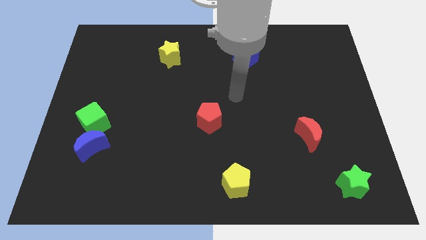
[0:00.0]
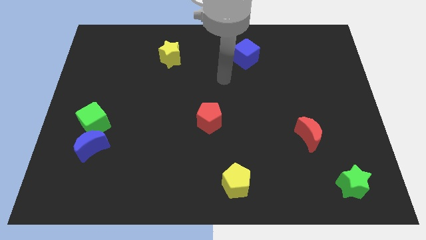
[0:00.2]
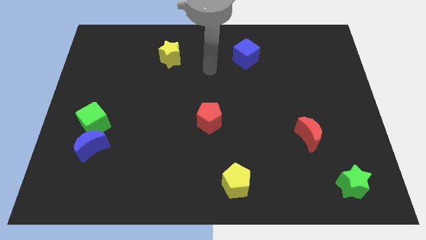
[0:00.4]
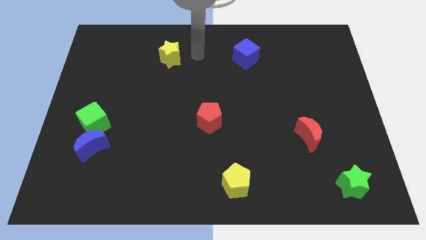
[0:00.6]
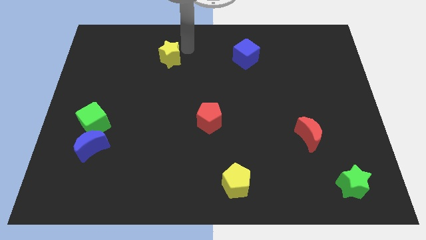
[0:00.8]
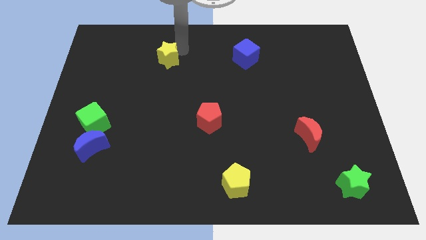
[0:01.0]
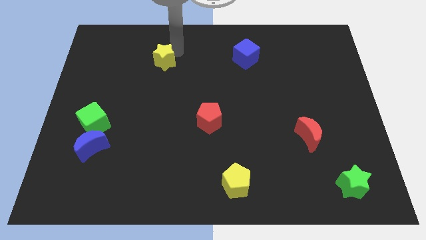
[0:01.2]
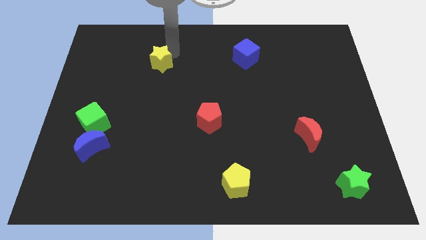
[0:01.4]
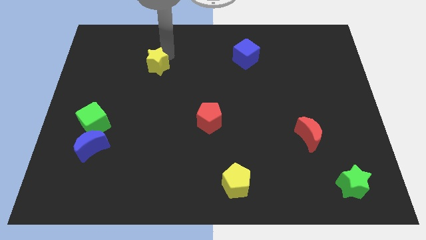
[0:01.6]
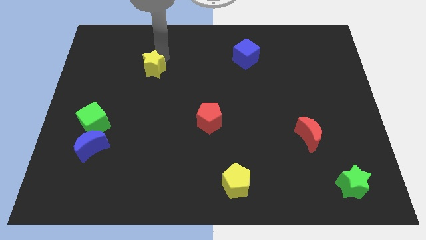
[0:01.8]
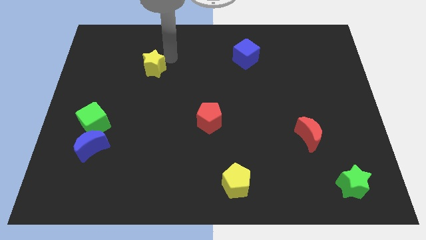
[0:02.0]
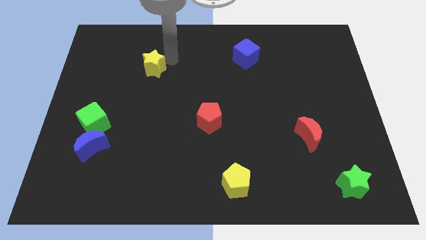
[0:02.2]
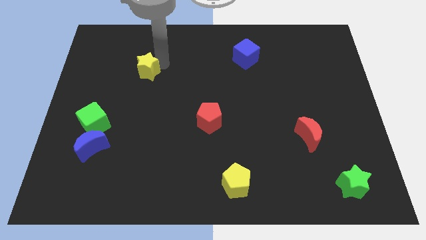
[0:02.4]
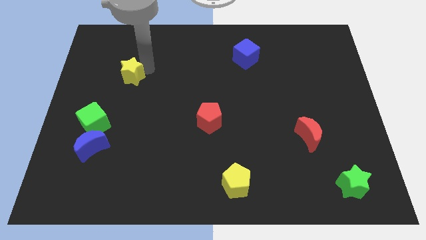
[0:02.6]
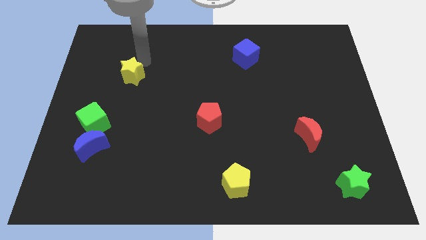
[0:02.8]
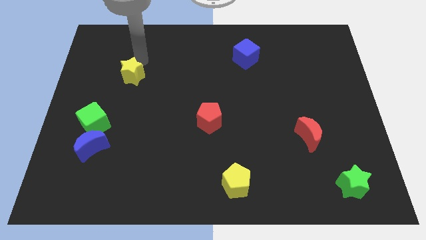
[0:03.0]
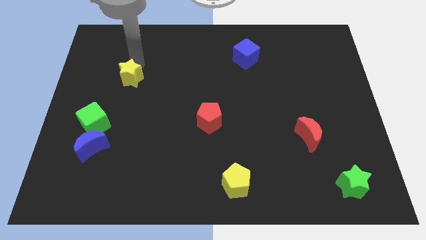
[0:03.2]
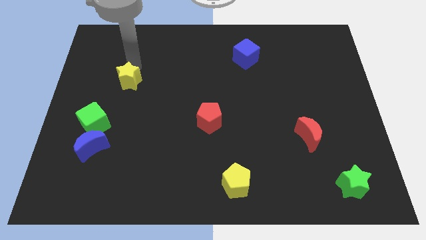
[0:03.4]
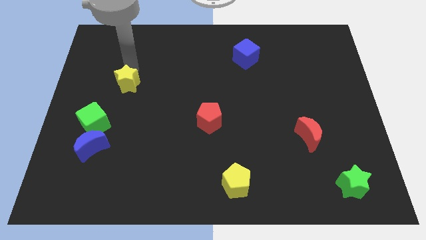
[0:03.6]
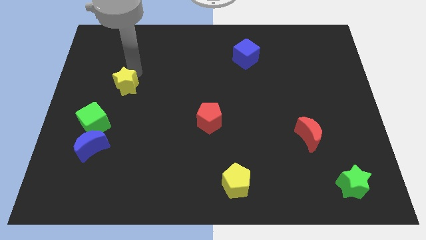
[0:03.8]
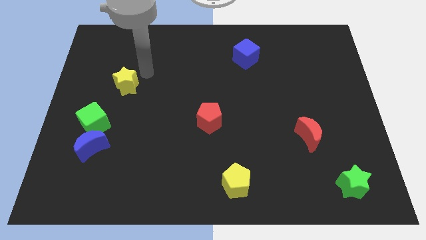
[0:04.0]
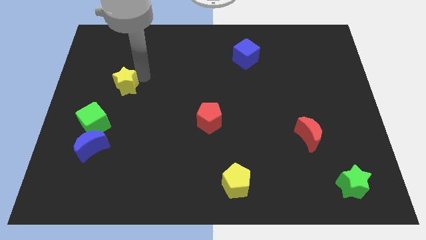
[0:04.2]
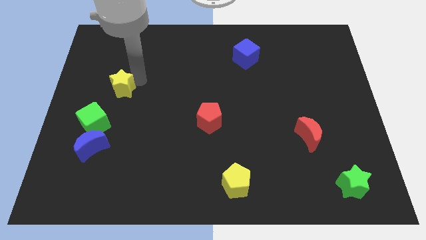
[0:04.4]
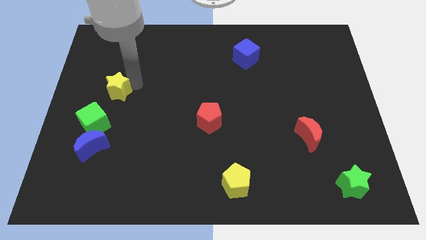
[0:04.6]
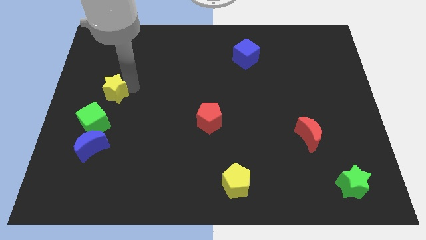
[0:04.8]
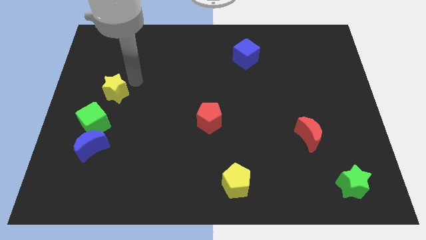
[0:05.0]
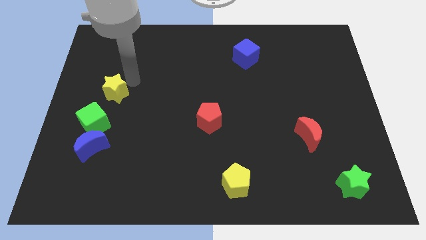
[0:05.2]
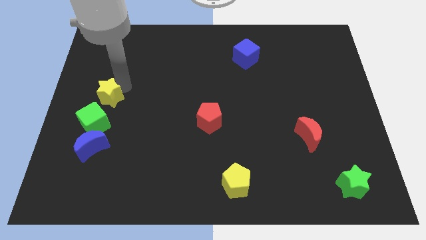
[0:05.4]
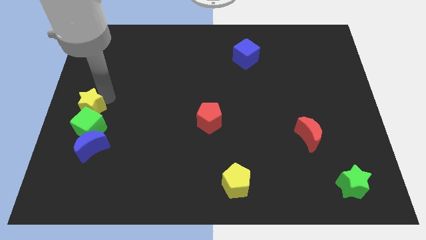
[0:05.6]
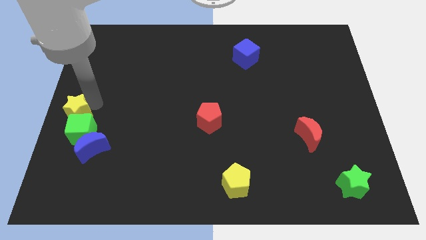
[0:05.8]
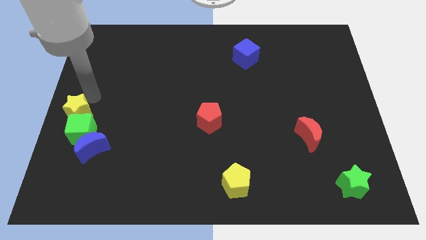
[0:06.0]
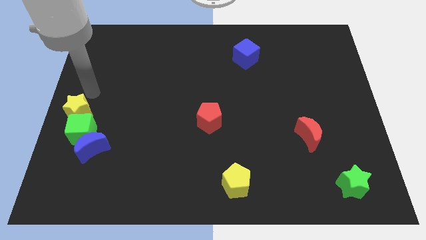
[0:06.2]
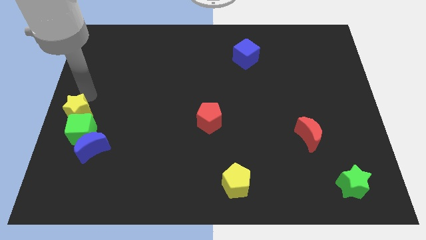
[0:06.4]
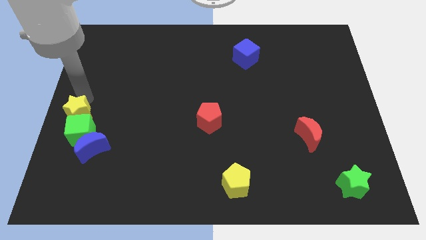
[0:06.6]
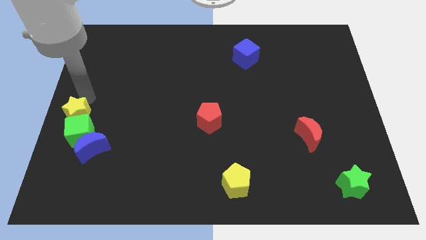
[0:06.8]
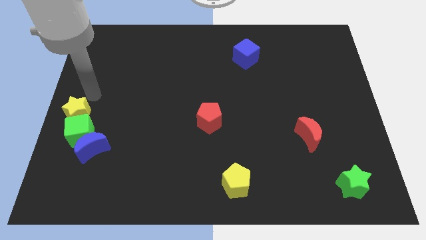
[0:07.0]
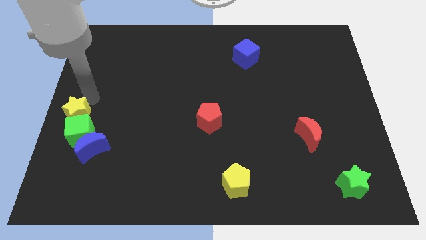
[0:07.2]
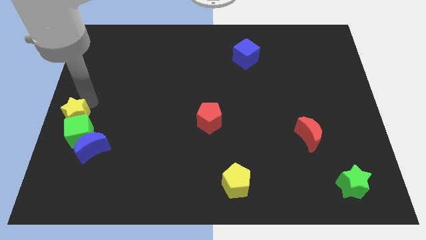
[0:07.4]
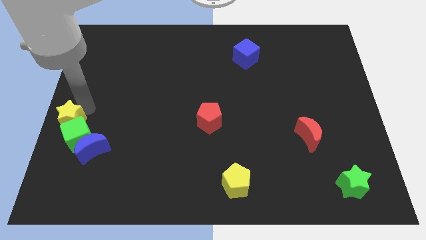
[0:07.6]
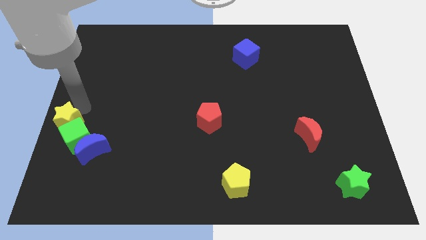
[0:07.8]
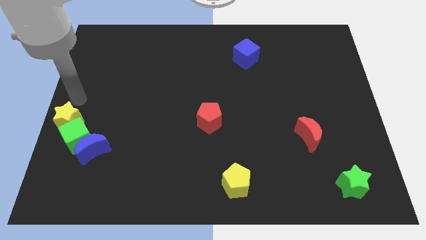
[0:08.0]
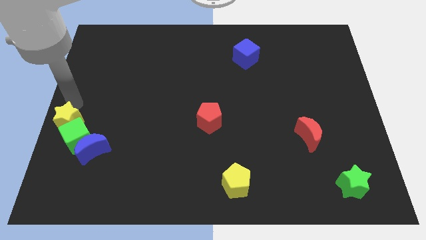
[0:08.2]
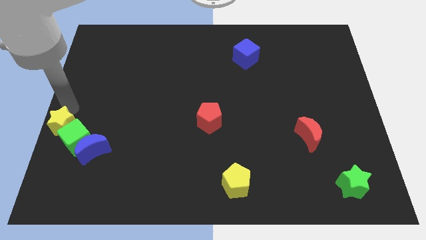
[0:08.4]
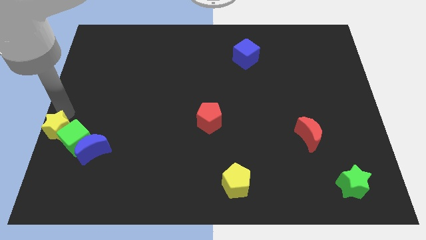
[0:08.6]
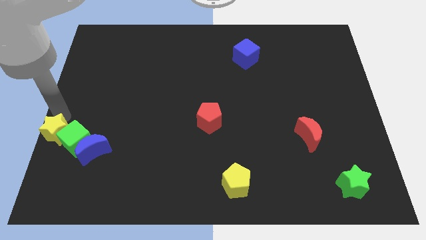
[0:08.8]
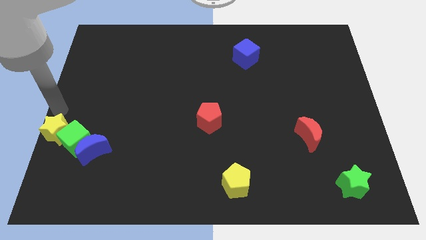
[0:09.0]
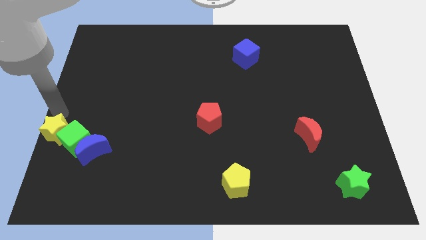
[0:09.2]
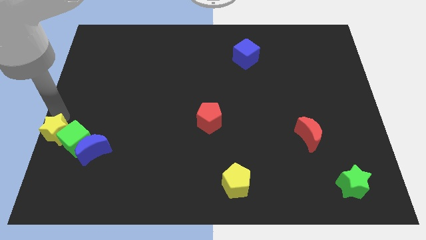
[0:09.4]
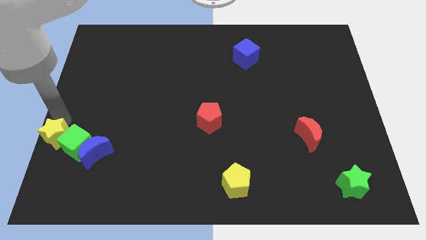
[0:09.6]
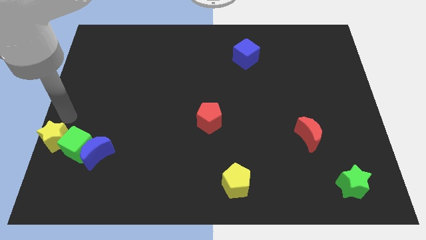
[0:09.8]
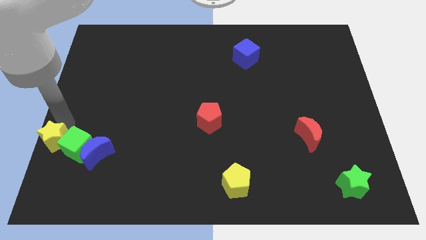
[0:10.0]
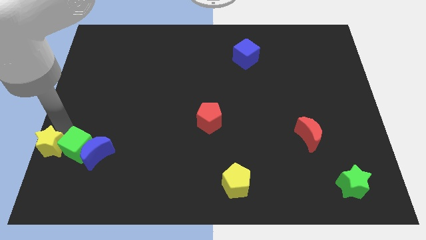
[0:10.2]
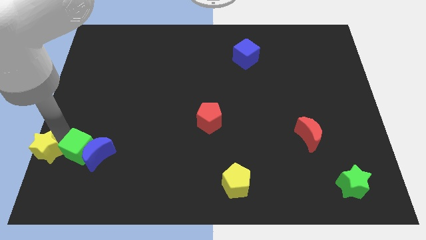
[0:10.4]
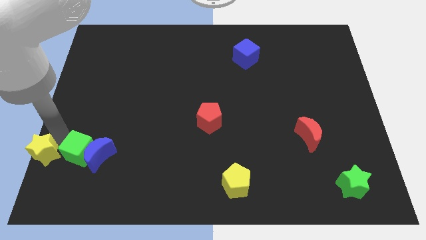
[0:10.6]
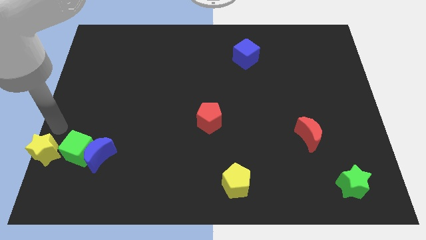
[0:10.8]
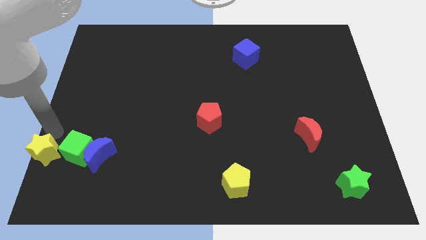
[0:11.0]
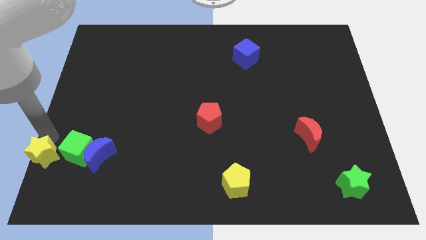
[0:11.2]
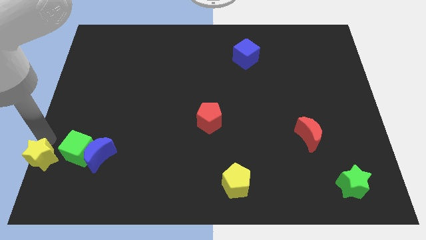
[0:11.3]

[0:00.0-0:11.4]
put the yellow star to the bottom left

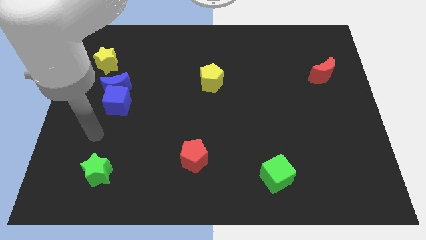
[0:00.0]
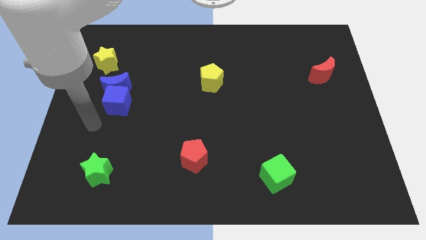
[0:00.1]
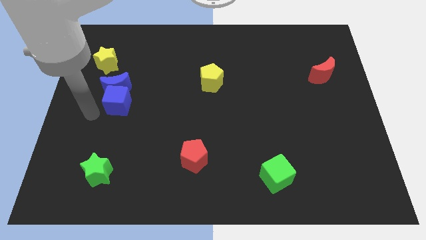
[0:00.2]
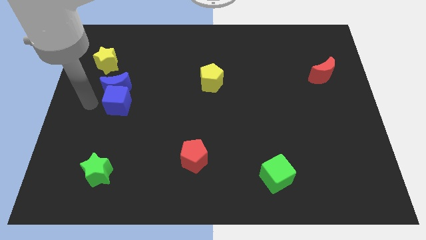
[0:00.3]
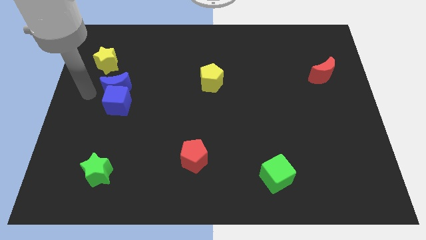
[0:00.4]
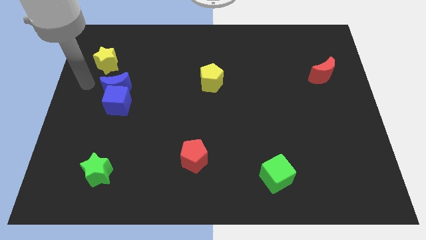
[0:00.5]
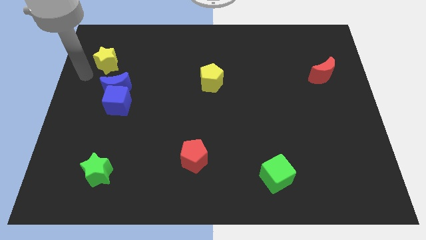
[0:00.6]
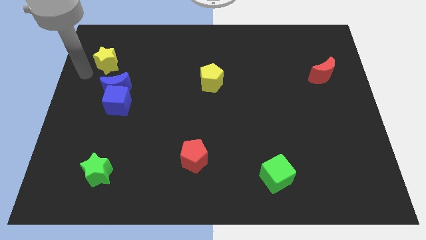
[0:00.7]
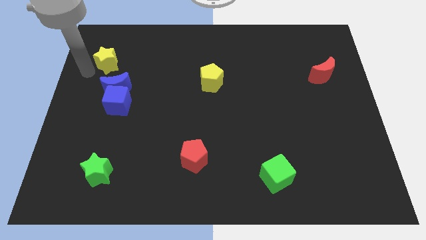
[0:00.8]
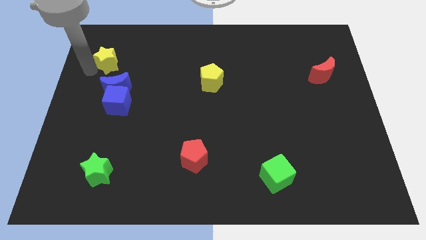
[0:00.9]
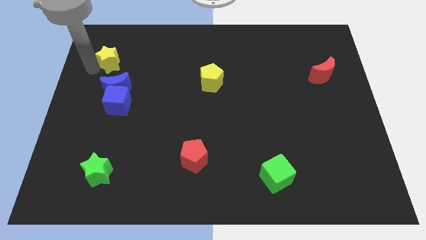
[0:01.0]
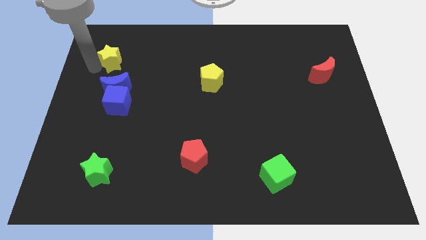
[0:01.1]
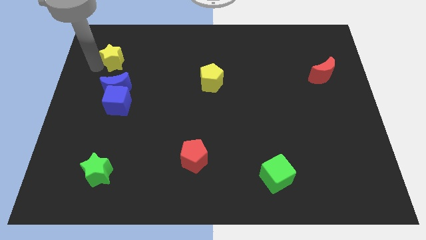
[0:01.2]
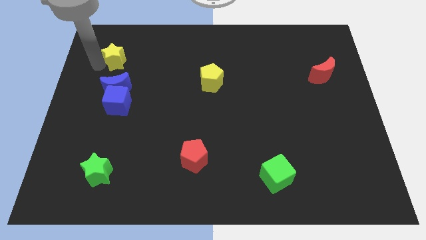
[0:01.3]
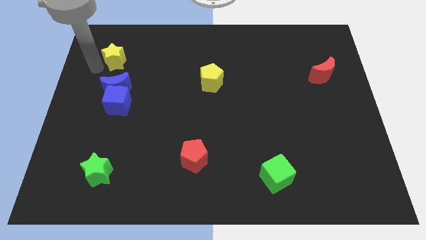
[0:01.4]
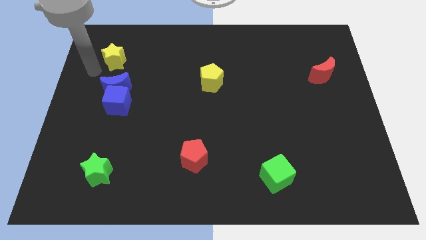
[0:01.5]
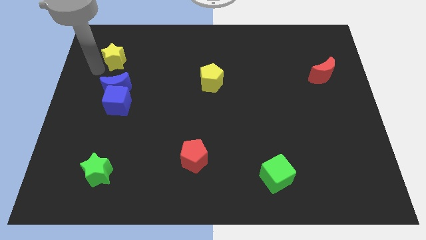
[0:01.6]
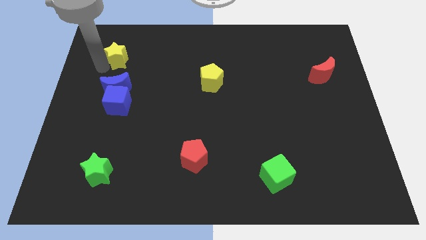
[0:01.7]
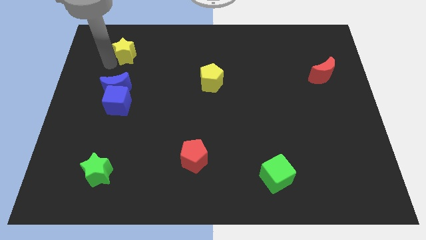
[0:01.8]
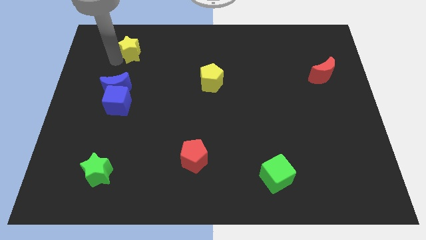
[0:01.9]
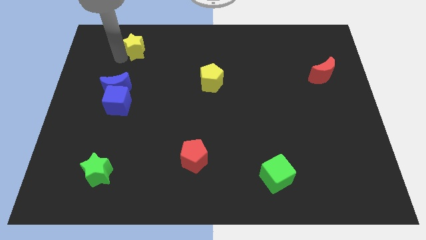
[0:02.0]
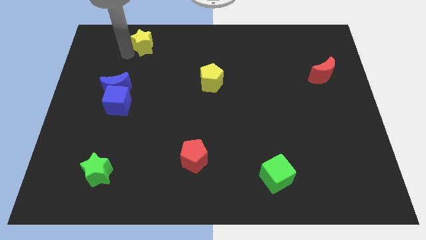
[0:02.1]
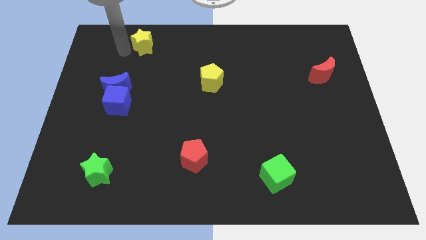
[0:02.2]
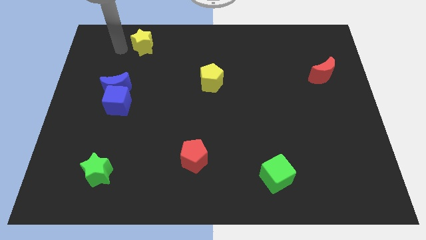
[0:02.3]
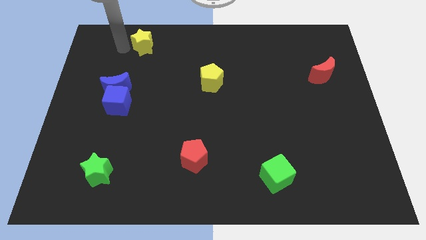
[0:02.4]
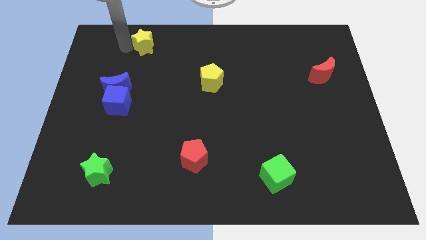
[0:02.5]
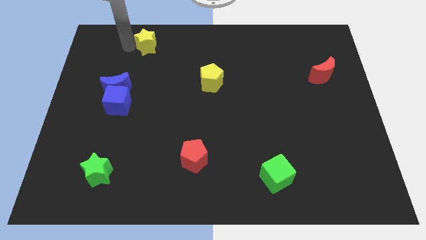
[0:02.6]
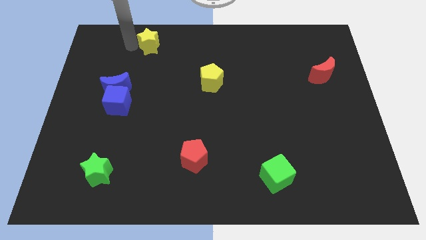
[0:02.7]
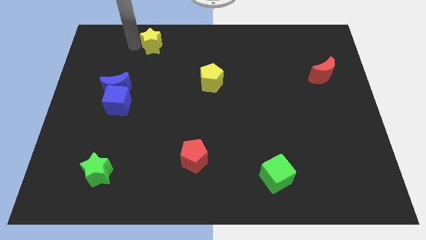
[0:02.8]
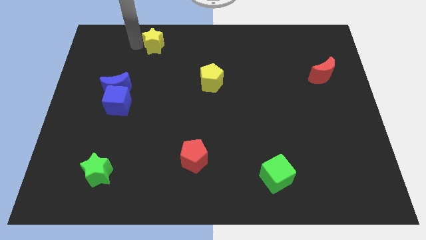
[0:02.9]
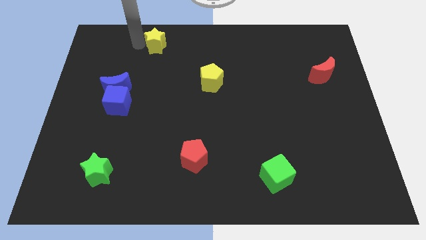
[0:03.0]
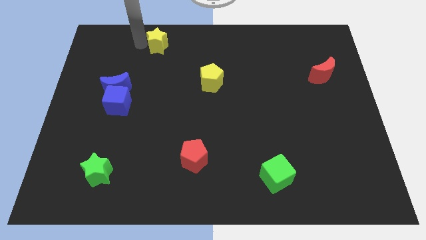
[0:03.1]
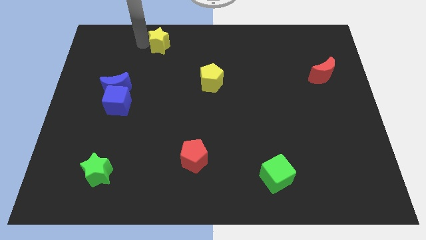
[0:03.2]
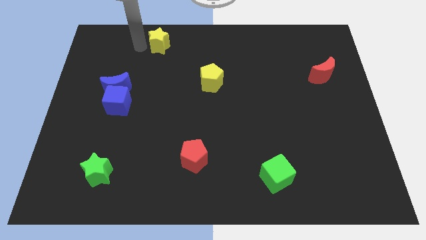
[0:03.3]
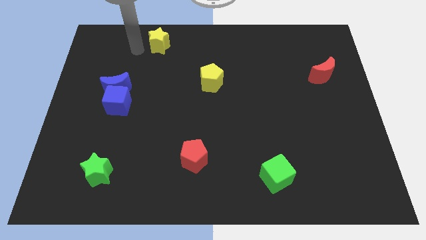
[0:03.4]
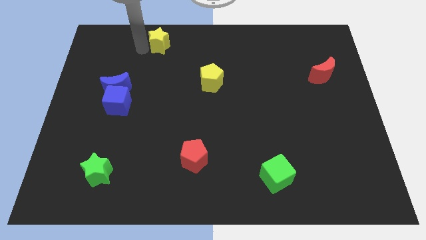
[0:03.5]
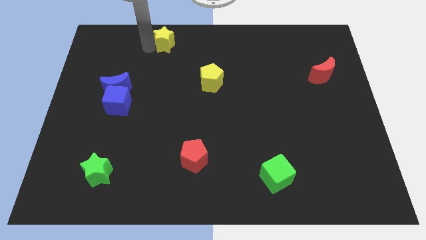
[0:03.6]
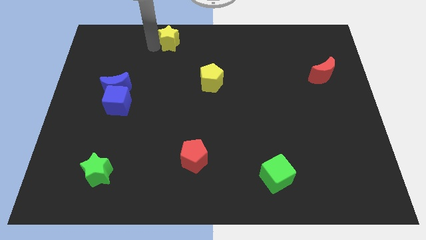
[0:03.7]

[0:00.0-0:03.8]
slide the yellow star to the top
